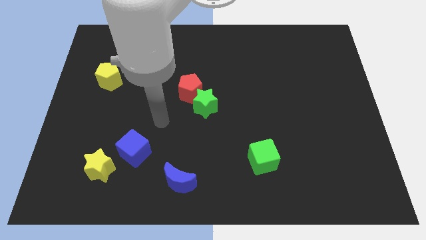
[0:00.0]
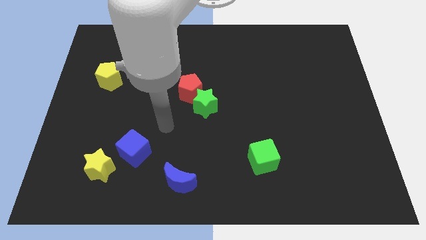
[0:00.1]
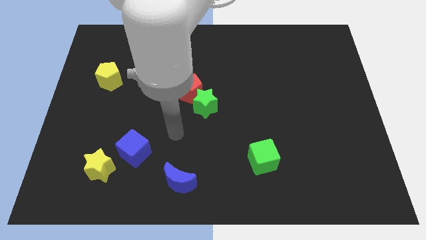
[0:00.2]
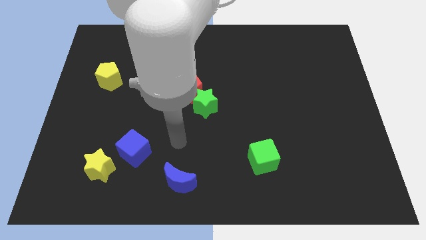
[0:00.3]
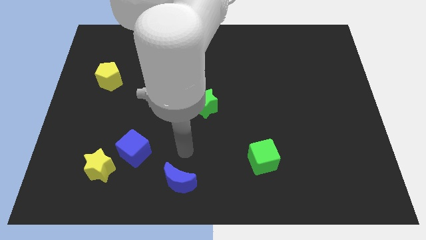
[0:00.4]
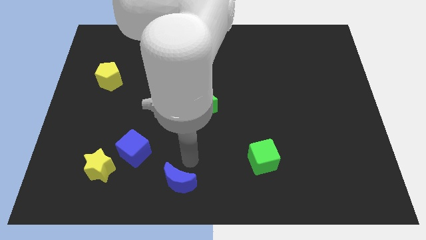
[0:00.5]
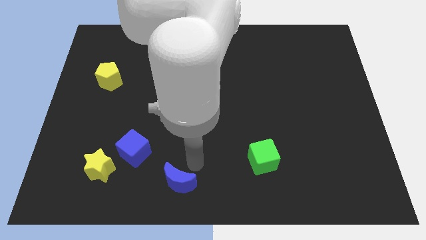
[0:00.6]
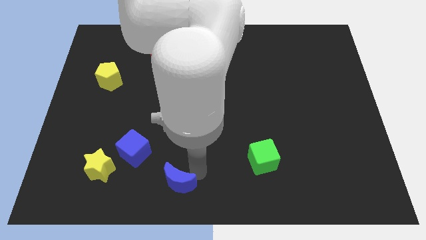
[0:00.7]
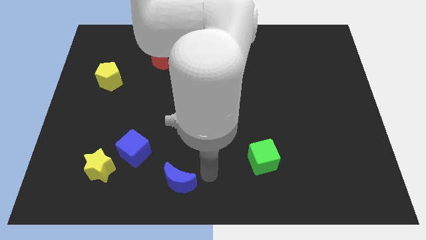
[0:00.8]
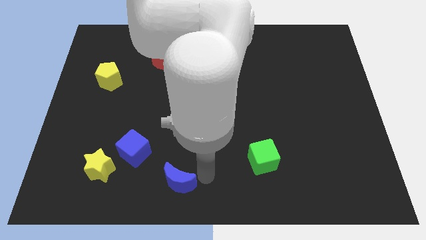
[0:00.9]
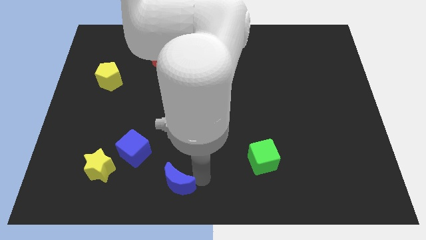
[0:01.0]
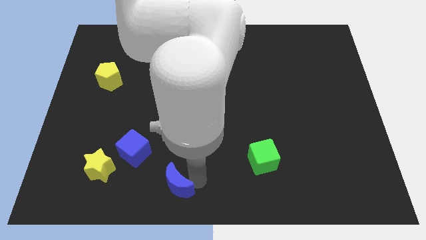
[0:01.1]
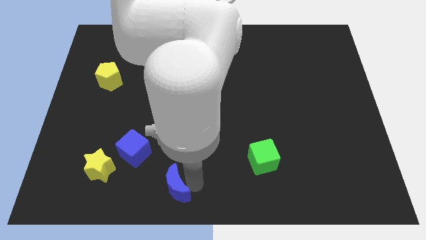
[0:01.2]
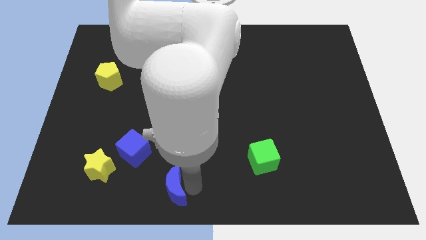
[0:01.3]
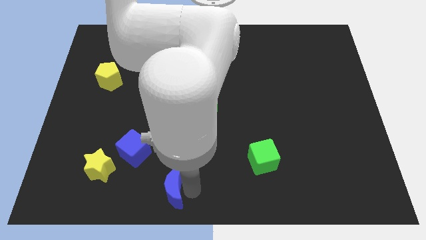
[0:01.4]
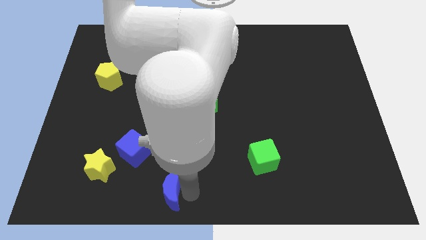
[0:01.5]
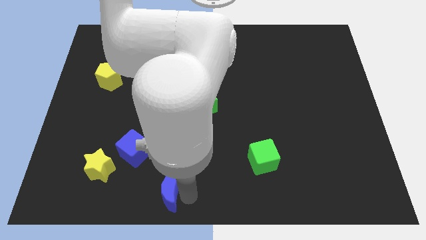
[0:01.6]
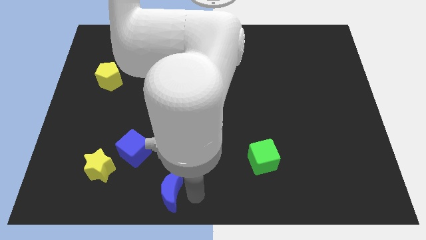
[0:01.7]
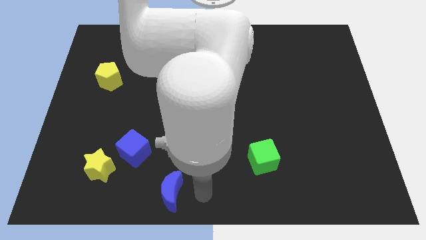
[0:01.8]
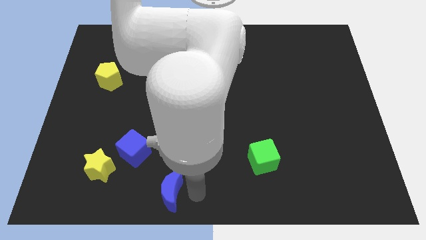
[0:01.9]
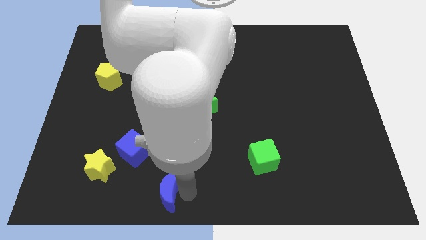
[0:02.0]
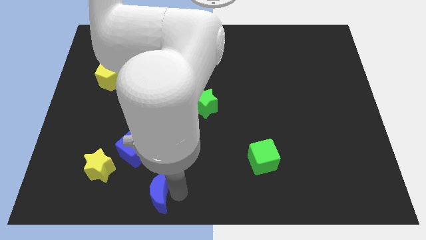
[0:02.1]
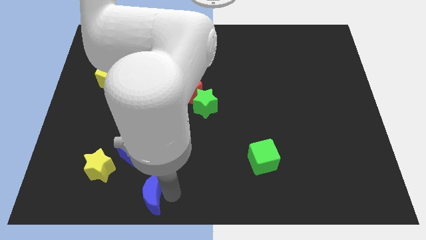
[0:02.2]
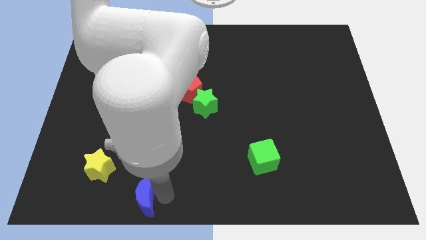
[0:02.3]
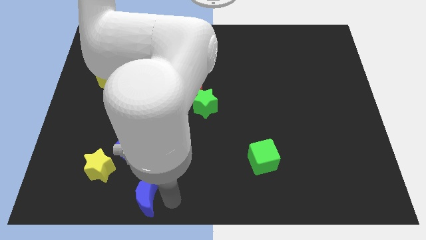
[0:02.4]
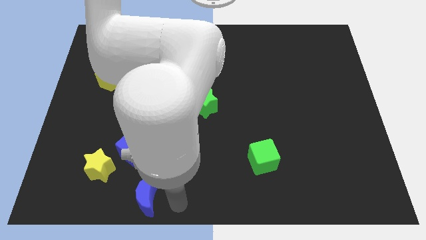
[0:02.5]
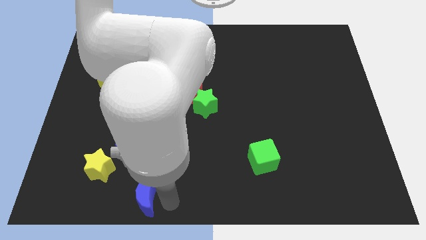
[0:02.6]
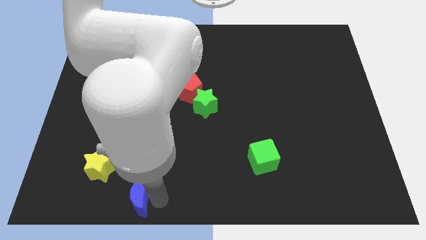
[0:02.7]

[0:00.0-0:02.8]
move the blue moon a little to the left

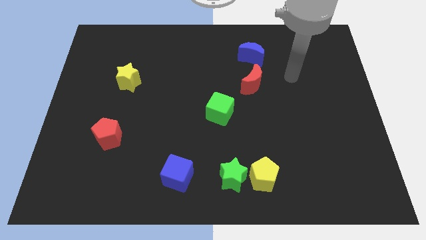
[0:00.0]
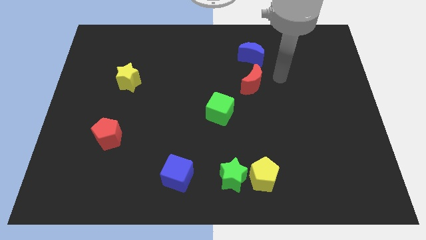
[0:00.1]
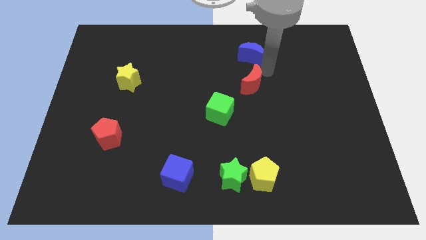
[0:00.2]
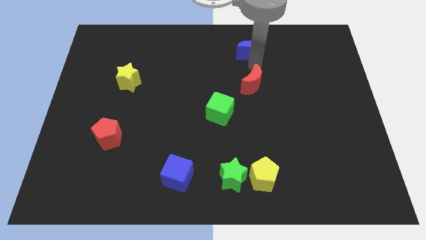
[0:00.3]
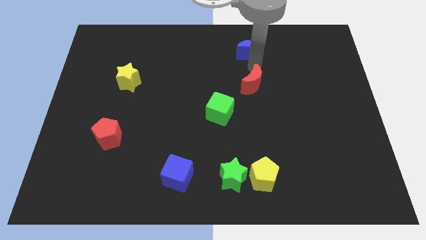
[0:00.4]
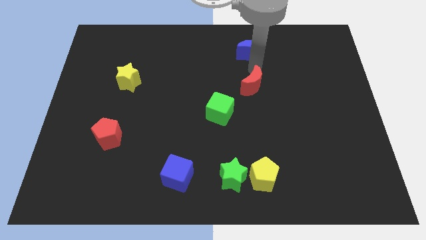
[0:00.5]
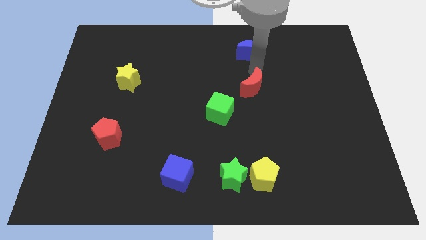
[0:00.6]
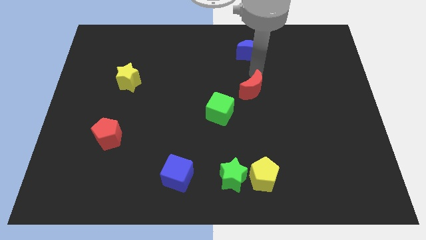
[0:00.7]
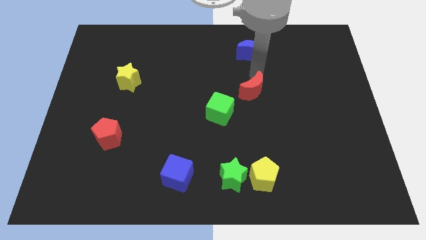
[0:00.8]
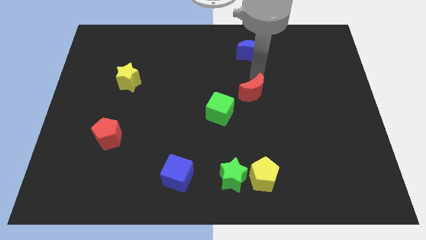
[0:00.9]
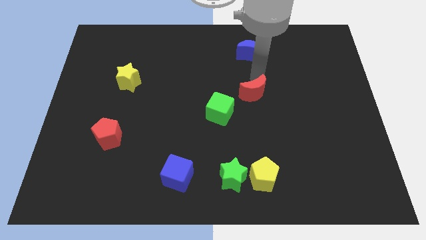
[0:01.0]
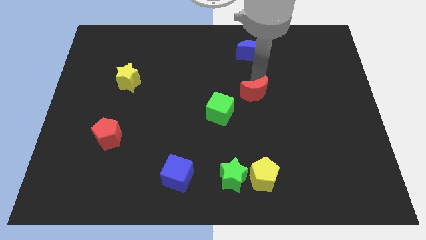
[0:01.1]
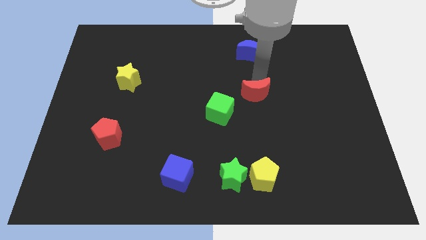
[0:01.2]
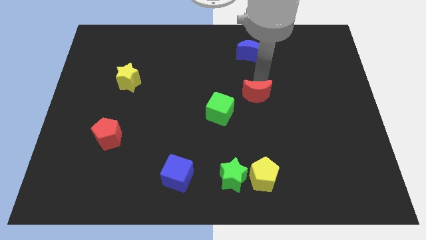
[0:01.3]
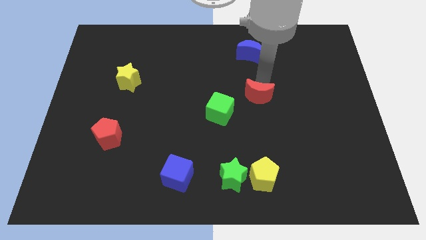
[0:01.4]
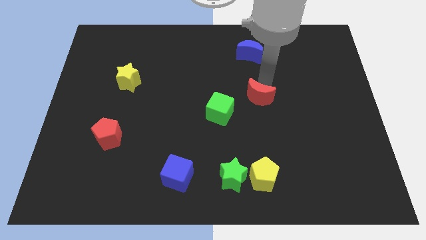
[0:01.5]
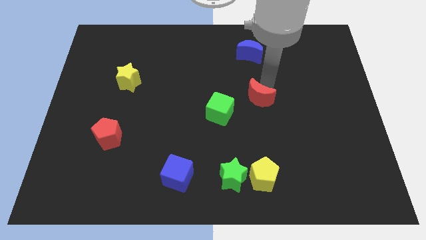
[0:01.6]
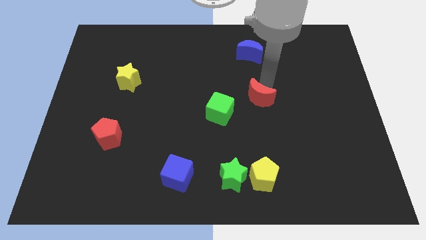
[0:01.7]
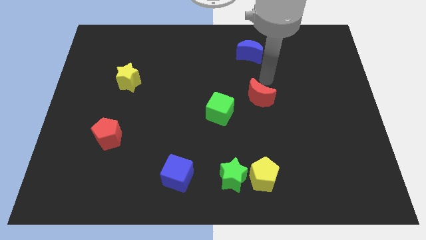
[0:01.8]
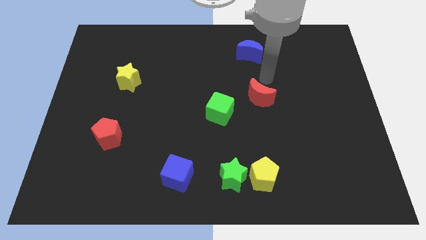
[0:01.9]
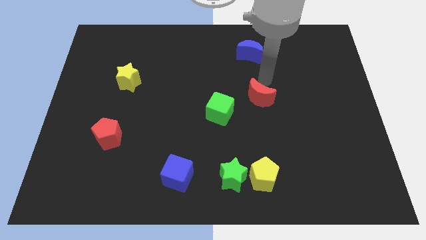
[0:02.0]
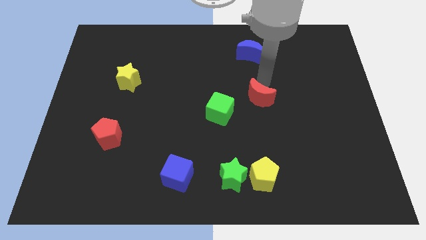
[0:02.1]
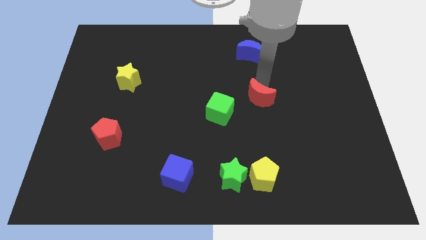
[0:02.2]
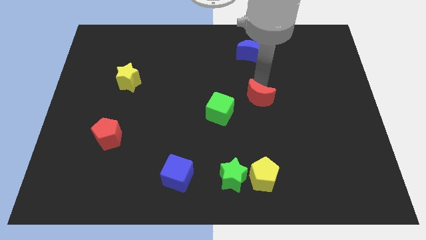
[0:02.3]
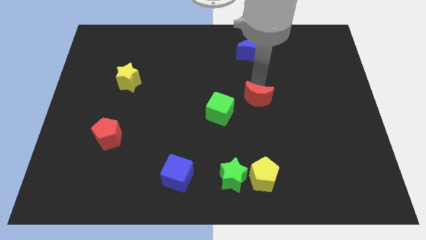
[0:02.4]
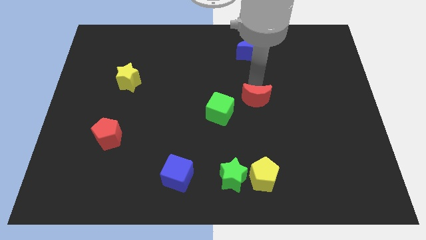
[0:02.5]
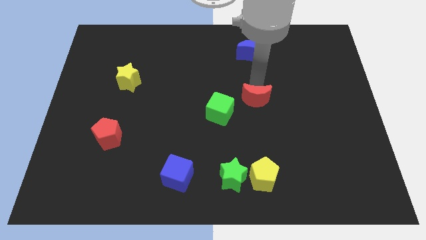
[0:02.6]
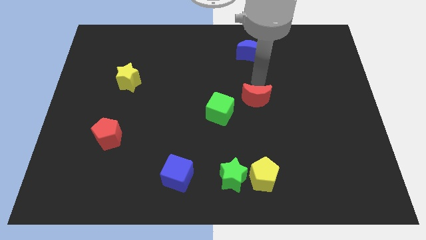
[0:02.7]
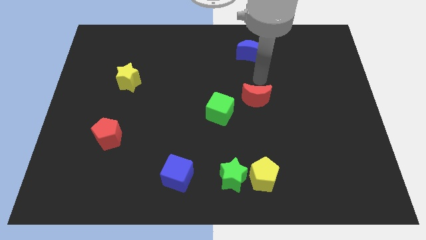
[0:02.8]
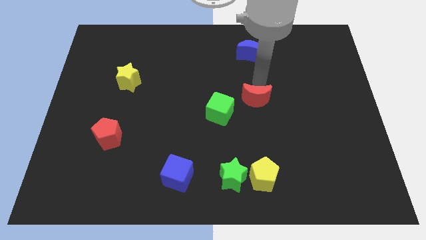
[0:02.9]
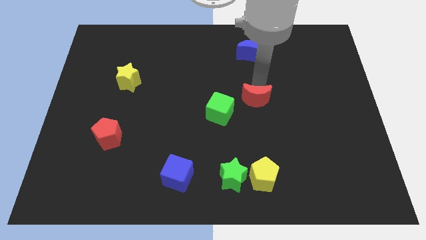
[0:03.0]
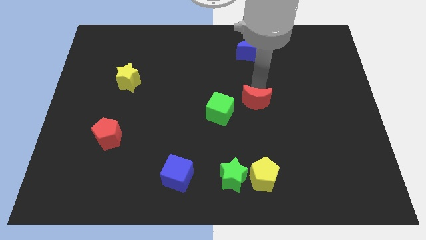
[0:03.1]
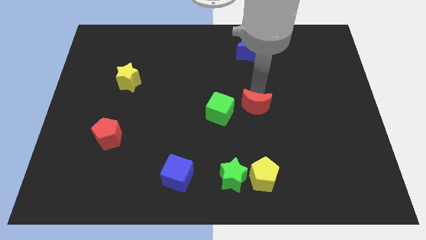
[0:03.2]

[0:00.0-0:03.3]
slightly slide the red moon down

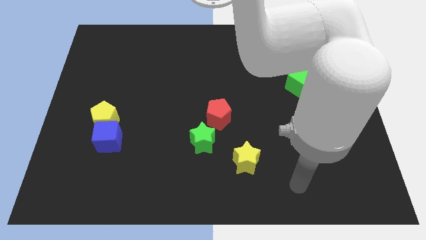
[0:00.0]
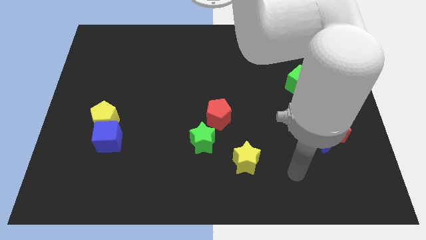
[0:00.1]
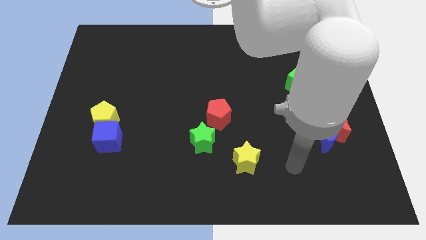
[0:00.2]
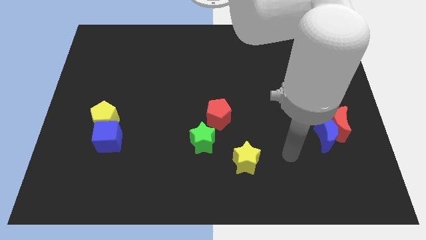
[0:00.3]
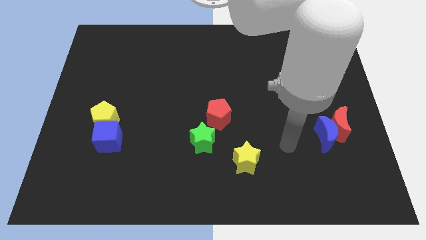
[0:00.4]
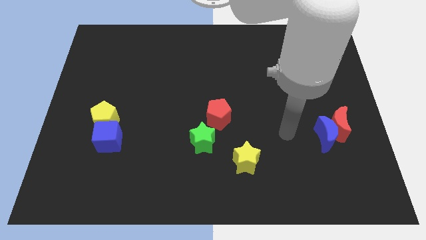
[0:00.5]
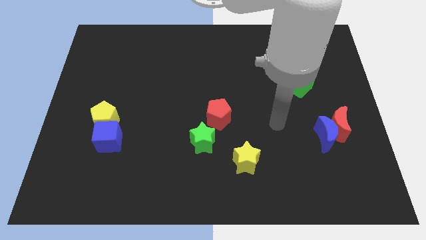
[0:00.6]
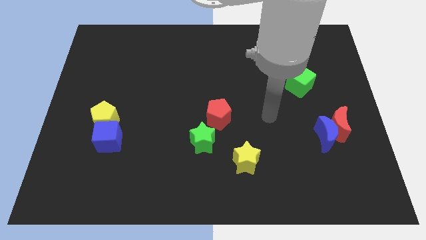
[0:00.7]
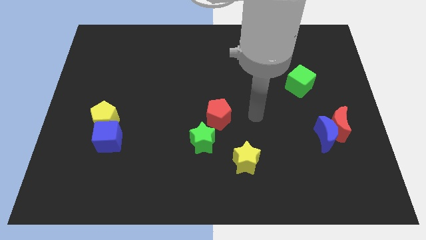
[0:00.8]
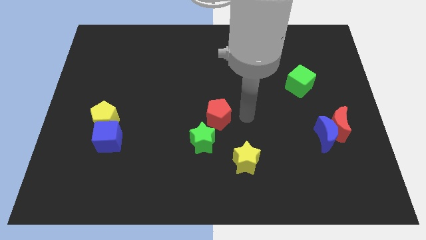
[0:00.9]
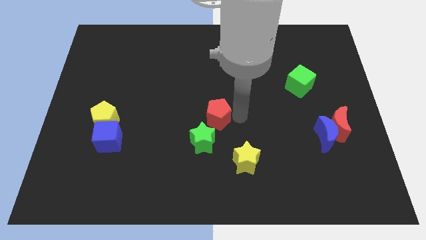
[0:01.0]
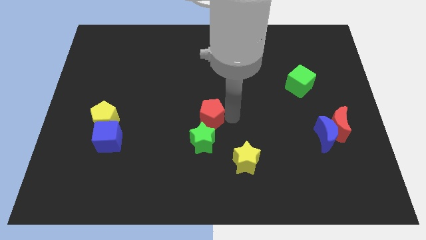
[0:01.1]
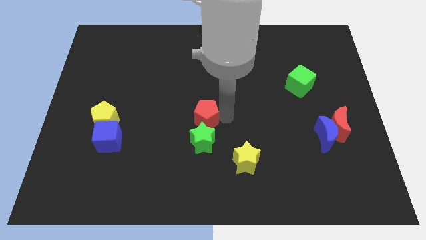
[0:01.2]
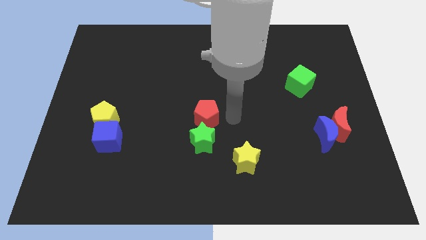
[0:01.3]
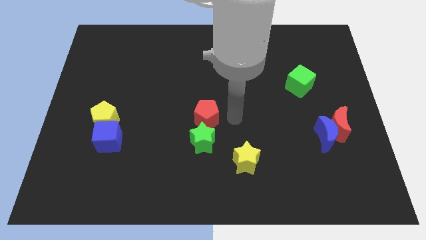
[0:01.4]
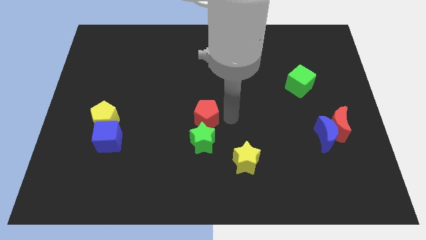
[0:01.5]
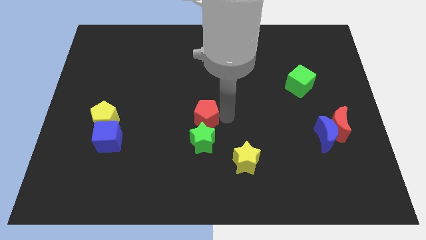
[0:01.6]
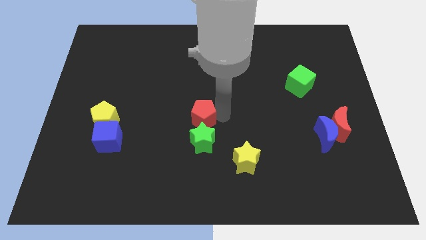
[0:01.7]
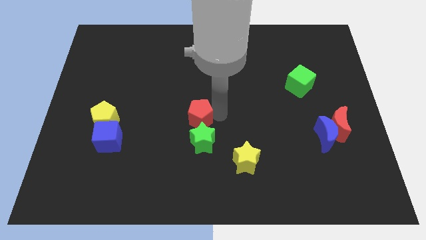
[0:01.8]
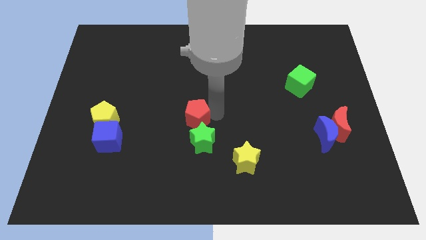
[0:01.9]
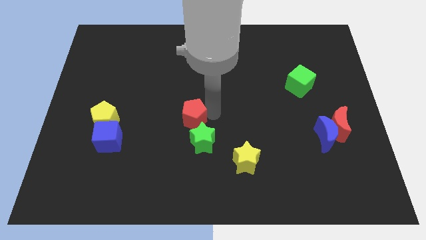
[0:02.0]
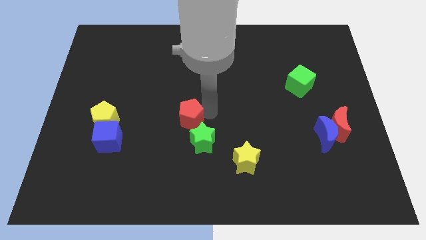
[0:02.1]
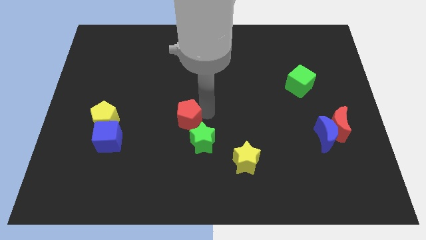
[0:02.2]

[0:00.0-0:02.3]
slightly push the red pentagon to the left
